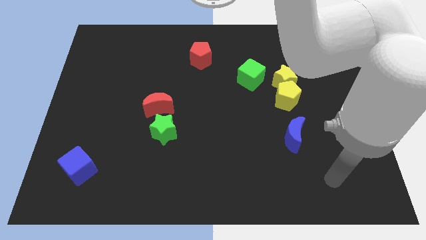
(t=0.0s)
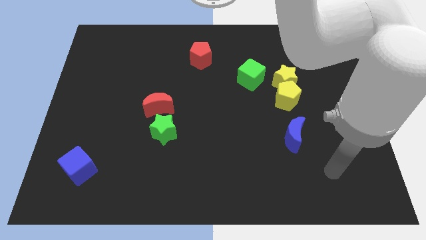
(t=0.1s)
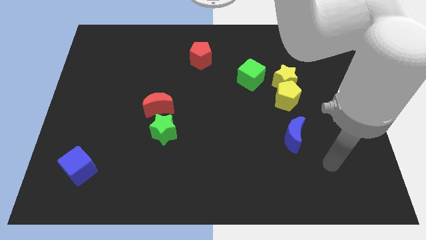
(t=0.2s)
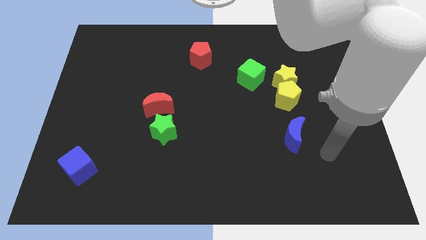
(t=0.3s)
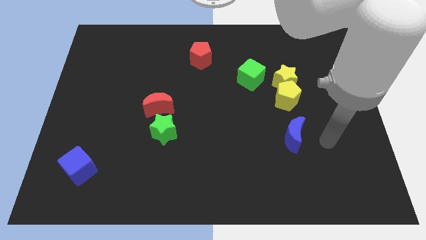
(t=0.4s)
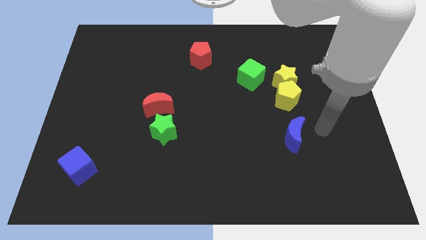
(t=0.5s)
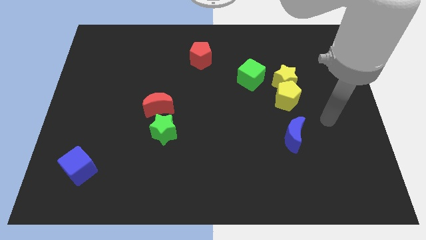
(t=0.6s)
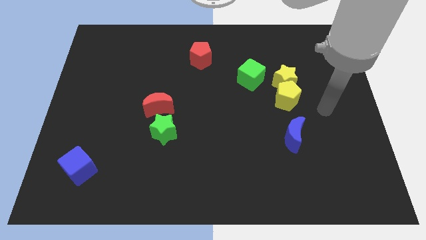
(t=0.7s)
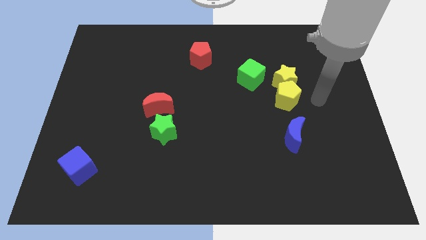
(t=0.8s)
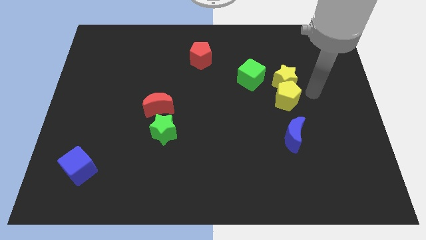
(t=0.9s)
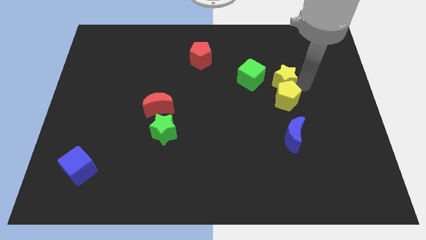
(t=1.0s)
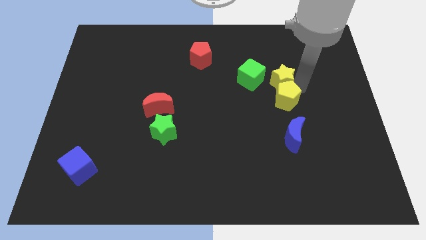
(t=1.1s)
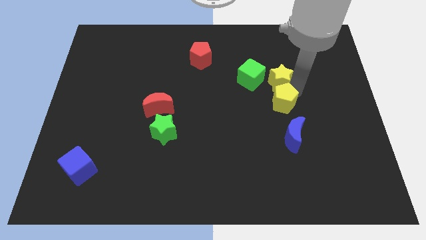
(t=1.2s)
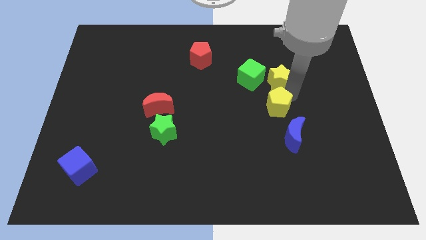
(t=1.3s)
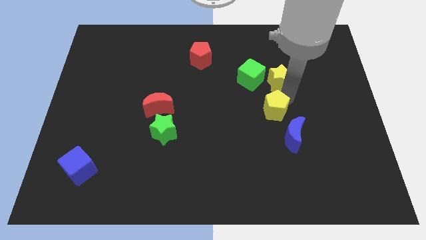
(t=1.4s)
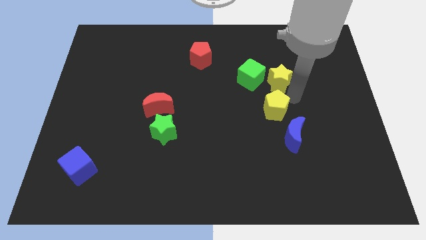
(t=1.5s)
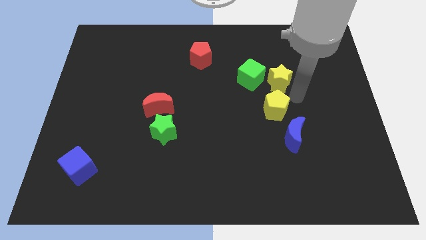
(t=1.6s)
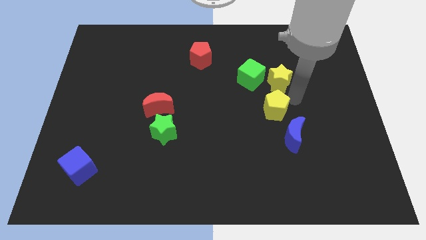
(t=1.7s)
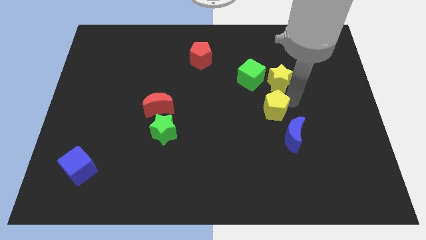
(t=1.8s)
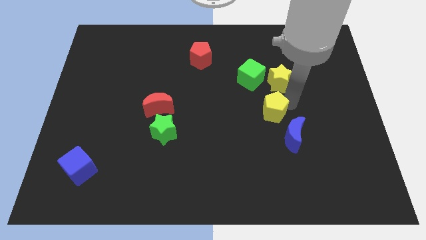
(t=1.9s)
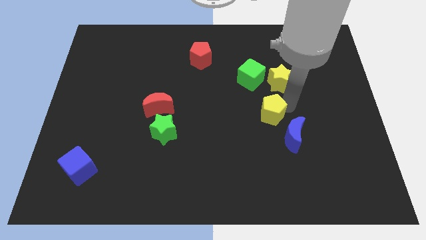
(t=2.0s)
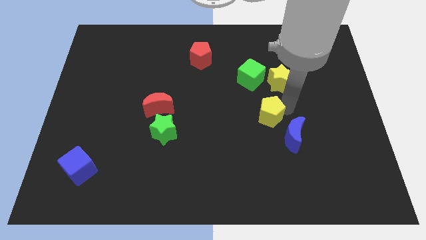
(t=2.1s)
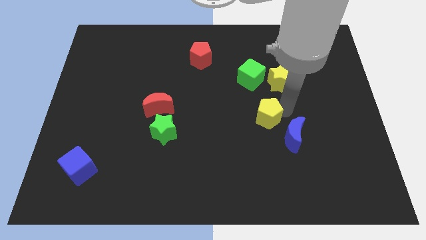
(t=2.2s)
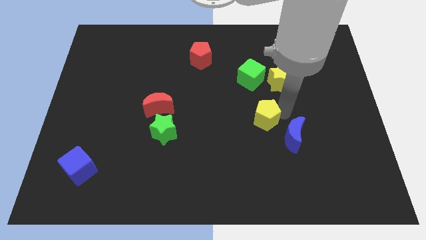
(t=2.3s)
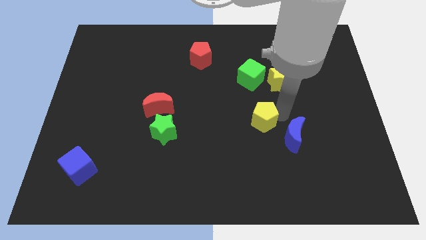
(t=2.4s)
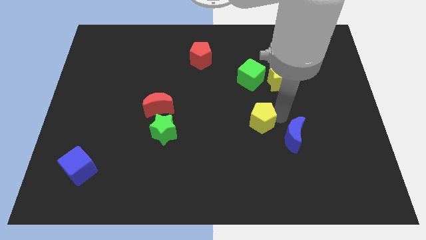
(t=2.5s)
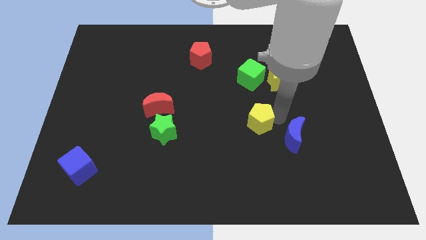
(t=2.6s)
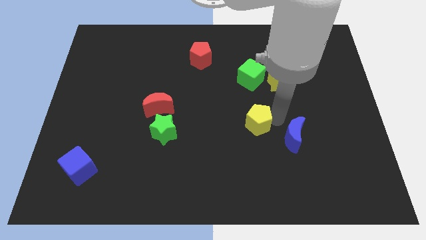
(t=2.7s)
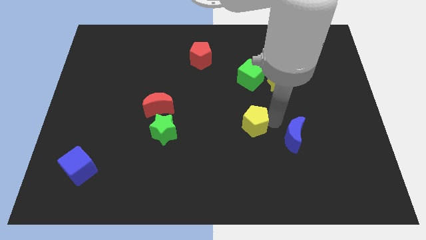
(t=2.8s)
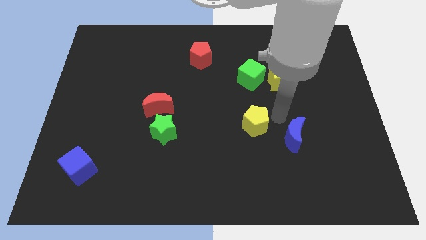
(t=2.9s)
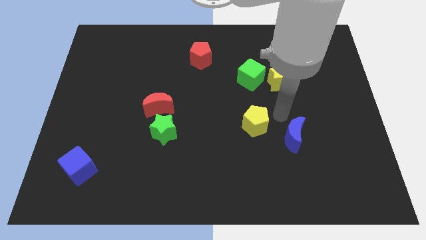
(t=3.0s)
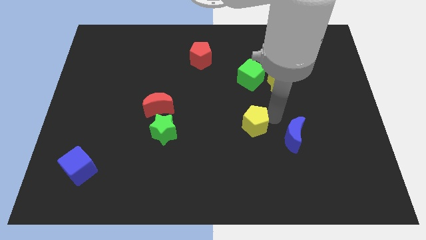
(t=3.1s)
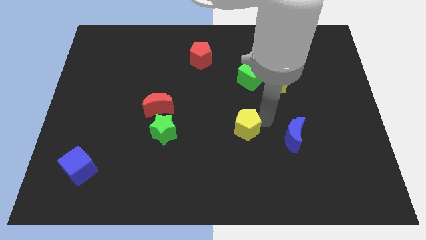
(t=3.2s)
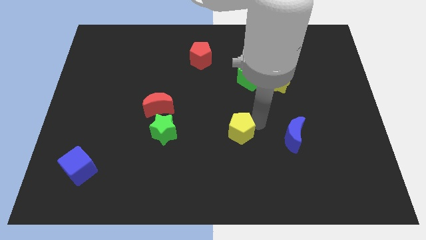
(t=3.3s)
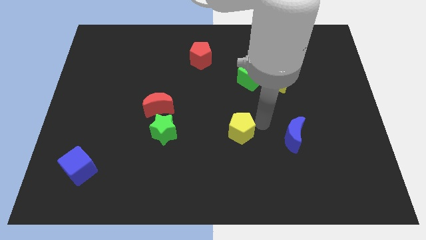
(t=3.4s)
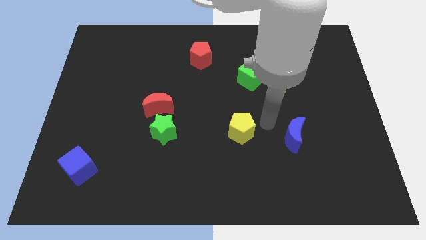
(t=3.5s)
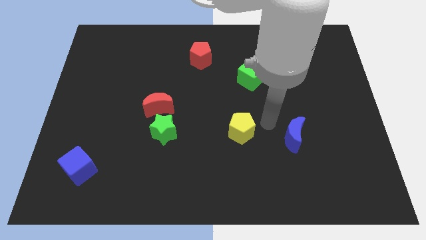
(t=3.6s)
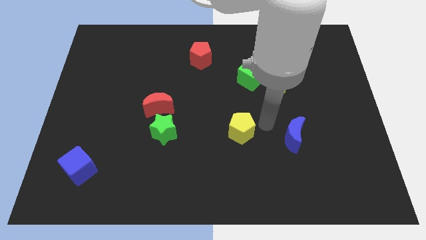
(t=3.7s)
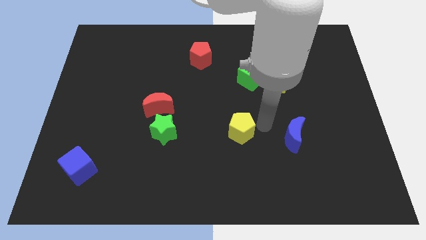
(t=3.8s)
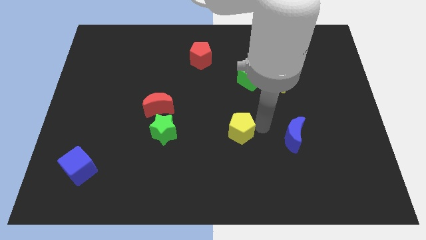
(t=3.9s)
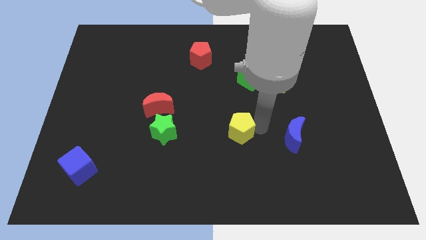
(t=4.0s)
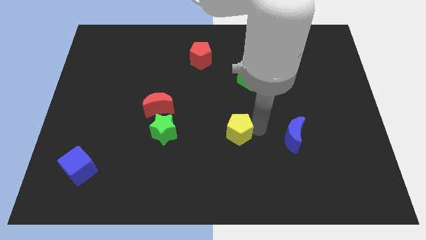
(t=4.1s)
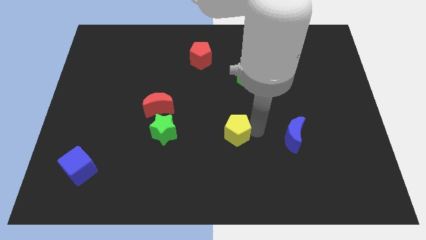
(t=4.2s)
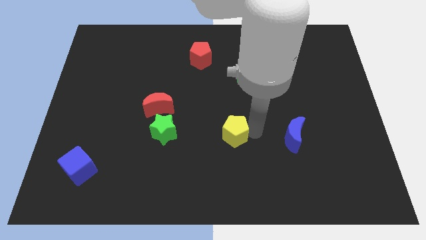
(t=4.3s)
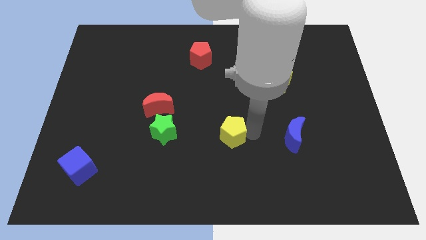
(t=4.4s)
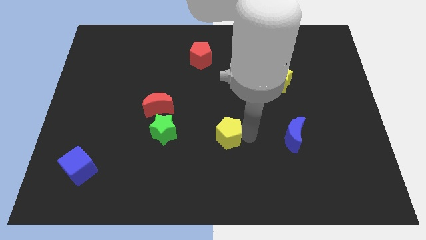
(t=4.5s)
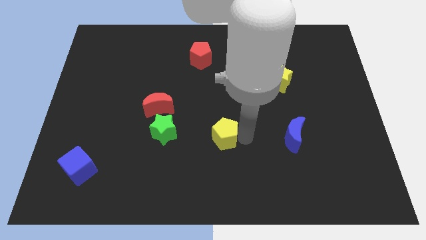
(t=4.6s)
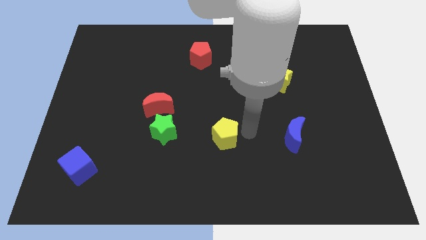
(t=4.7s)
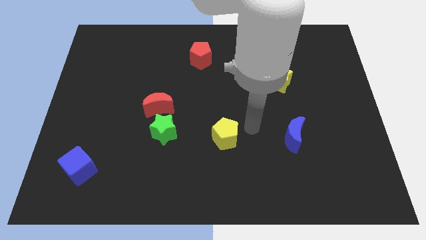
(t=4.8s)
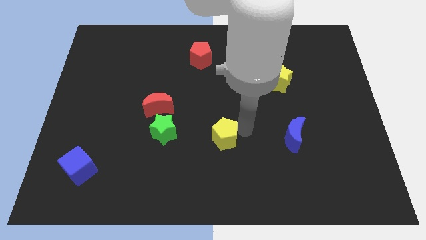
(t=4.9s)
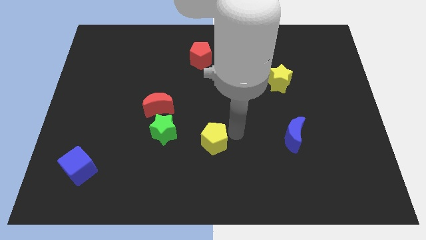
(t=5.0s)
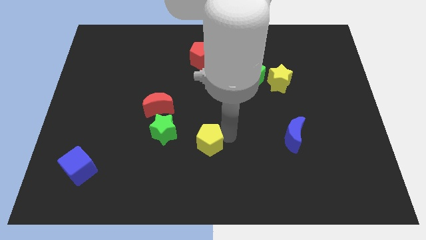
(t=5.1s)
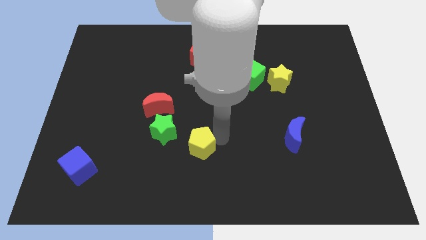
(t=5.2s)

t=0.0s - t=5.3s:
push the yellow pentagon to the bottom right side of the green star

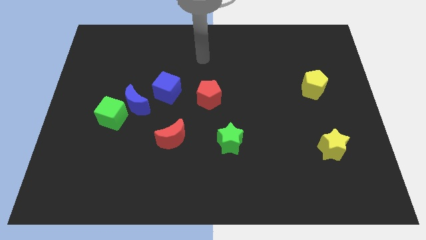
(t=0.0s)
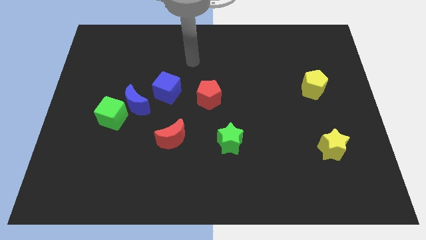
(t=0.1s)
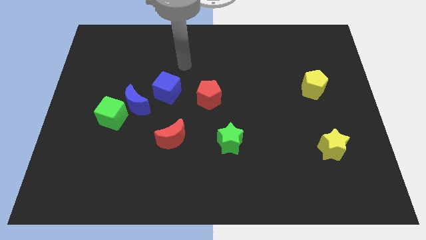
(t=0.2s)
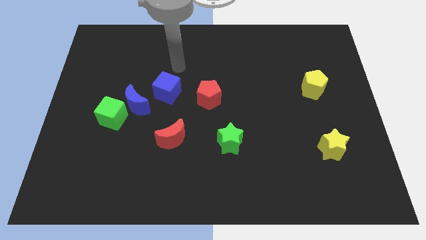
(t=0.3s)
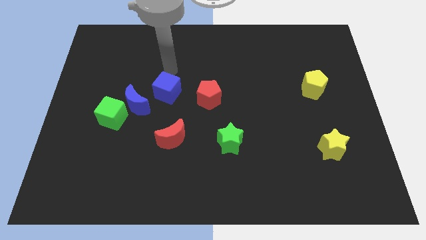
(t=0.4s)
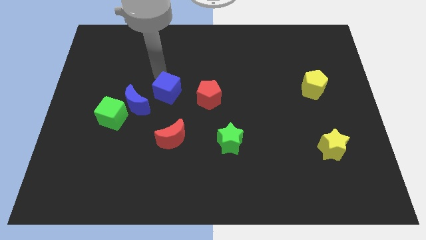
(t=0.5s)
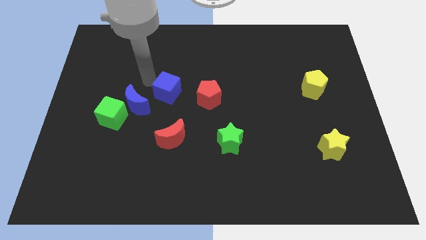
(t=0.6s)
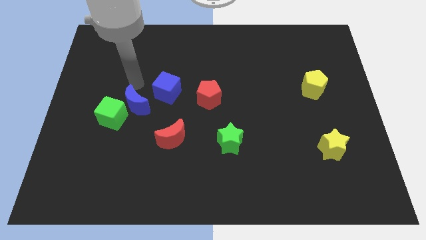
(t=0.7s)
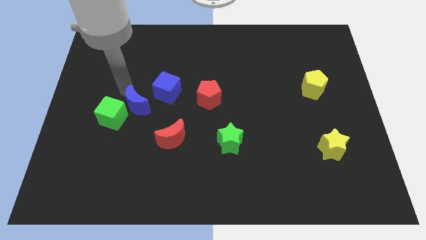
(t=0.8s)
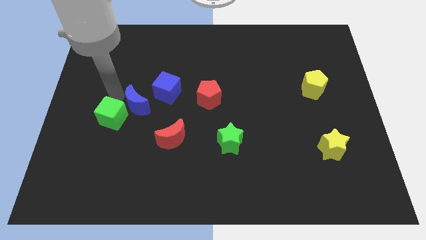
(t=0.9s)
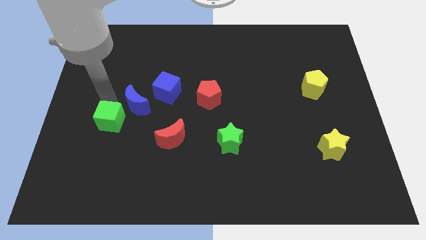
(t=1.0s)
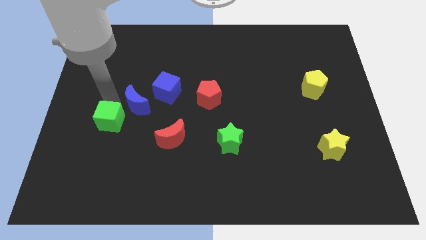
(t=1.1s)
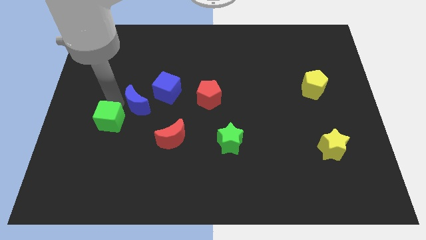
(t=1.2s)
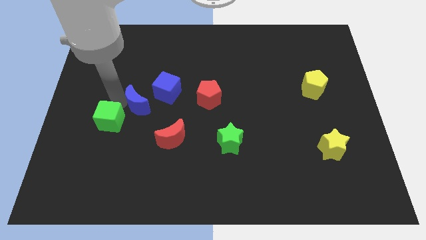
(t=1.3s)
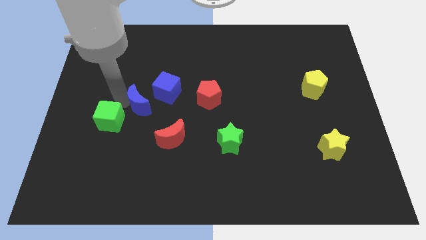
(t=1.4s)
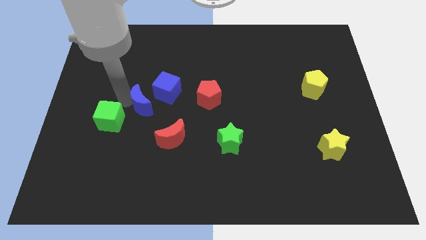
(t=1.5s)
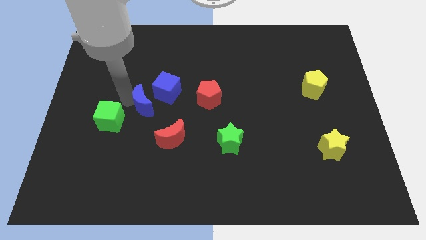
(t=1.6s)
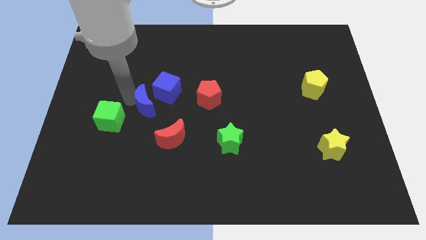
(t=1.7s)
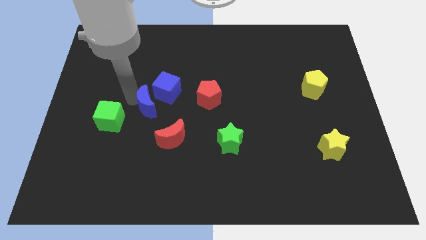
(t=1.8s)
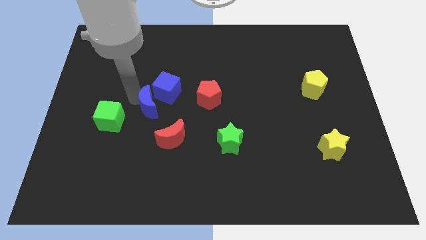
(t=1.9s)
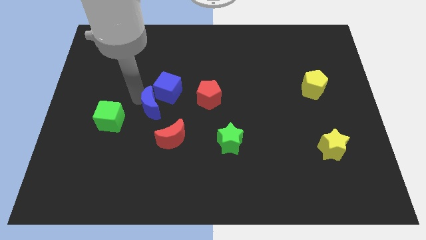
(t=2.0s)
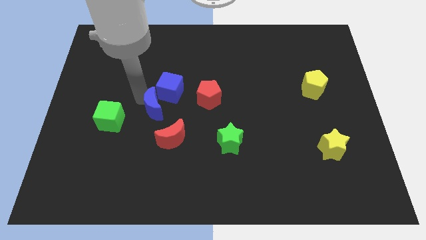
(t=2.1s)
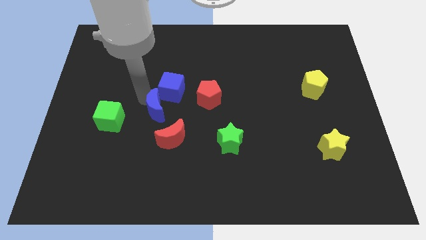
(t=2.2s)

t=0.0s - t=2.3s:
put the blue moon above the red moon

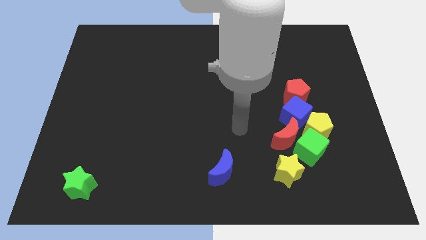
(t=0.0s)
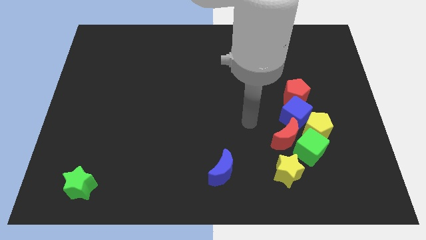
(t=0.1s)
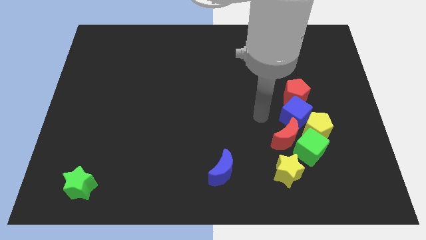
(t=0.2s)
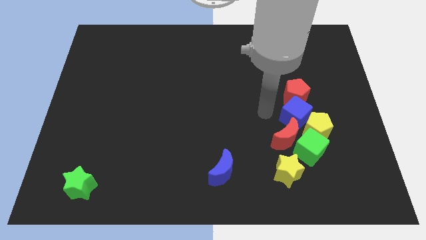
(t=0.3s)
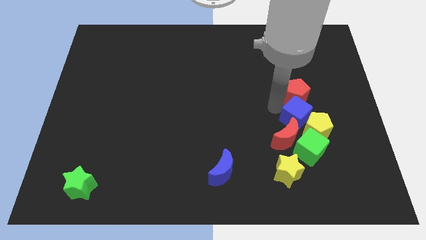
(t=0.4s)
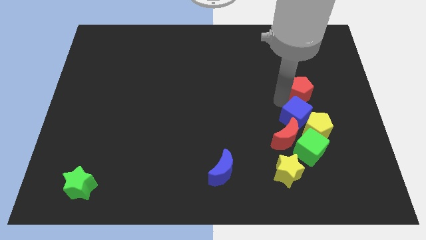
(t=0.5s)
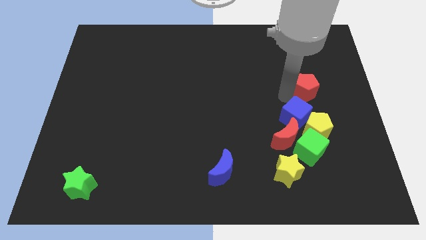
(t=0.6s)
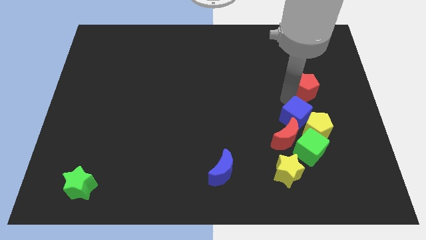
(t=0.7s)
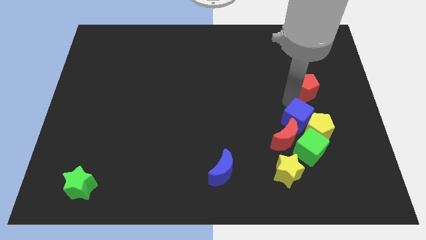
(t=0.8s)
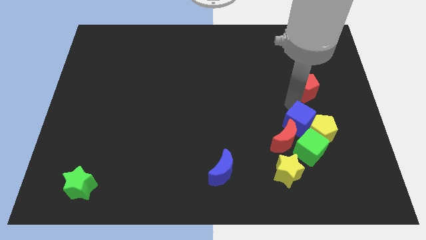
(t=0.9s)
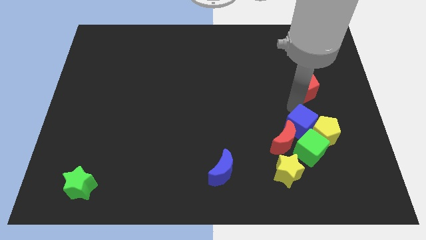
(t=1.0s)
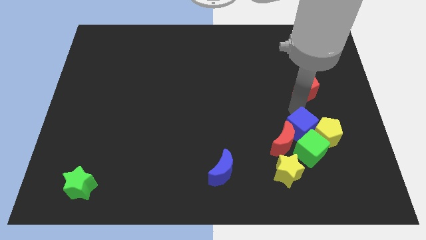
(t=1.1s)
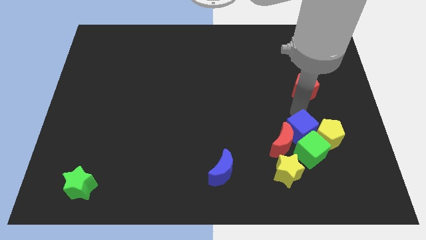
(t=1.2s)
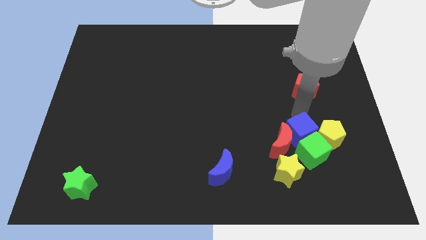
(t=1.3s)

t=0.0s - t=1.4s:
move the blue cube to the top right side of the yellow star
